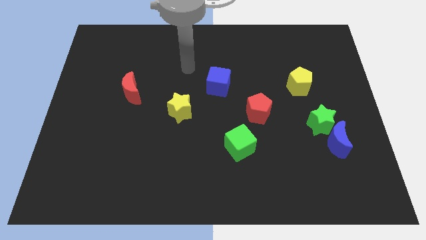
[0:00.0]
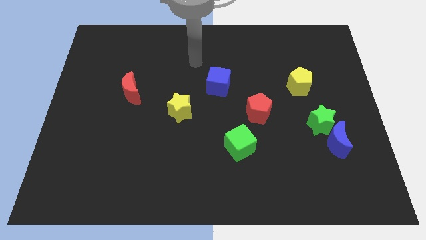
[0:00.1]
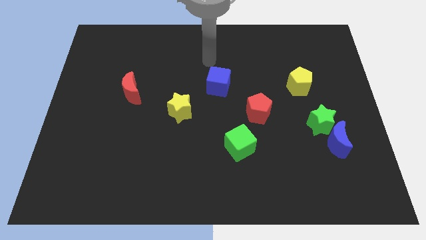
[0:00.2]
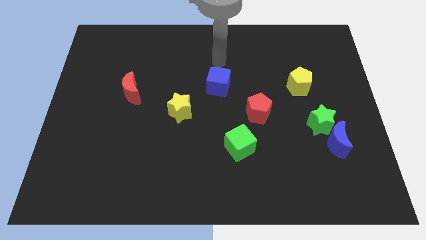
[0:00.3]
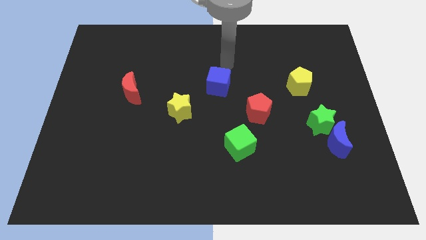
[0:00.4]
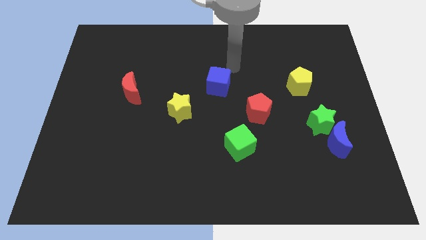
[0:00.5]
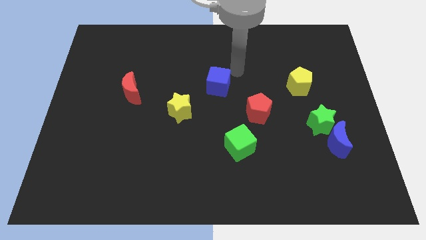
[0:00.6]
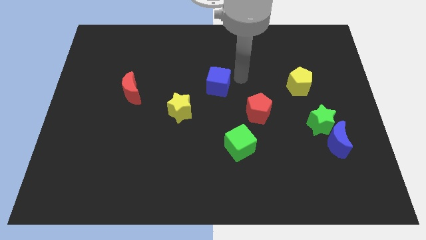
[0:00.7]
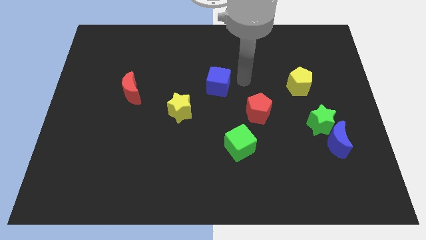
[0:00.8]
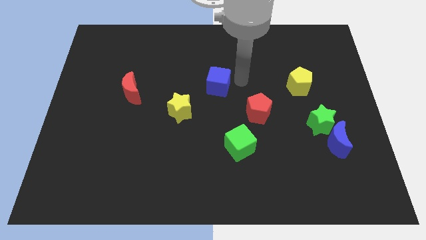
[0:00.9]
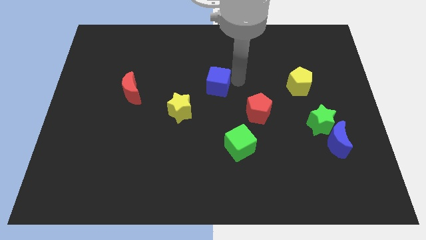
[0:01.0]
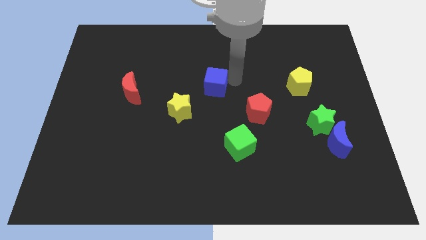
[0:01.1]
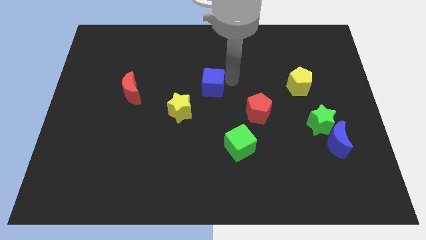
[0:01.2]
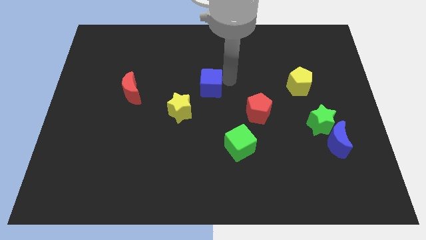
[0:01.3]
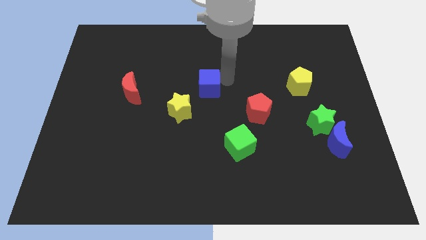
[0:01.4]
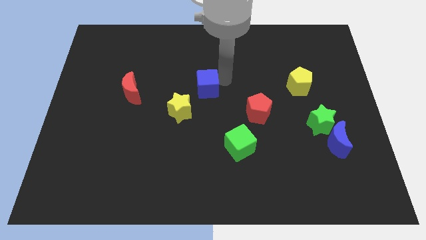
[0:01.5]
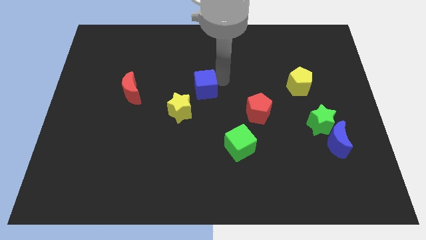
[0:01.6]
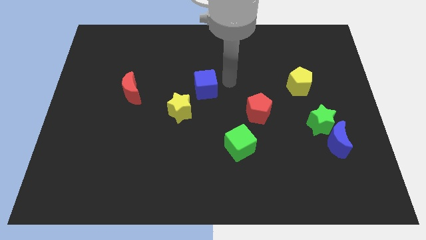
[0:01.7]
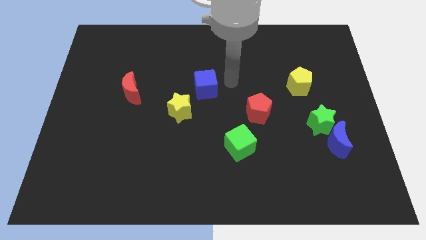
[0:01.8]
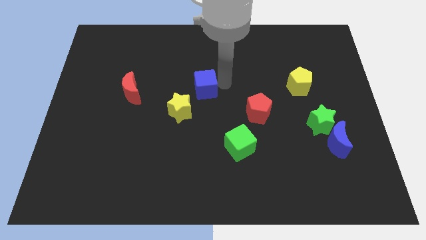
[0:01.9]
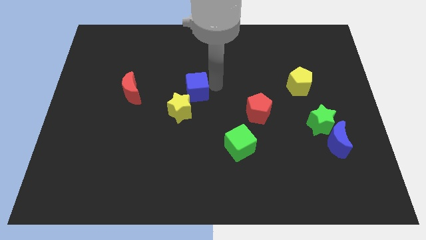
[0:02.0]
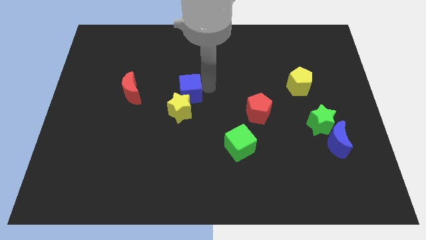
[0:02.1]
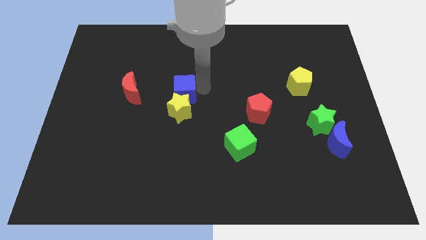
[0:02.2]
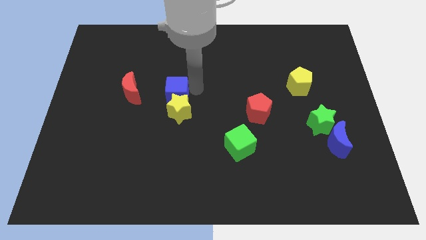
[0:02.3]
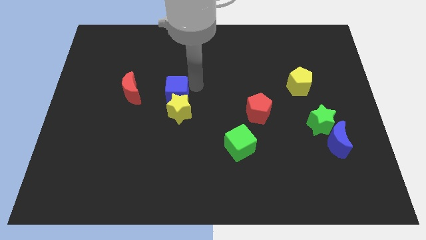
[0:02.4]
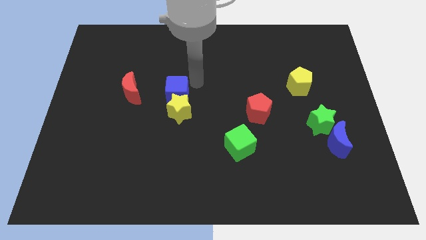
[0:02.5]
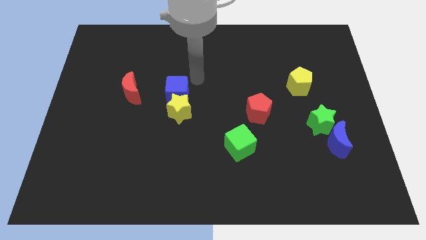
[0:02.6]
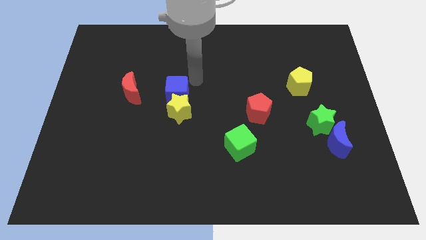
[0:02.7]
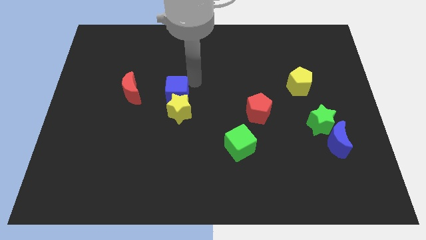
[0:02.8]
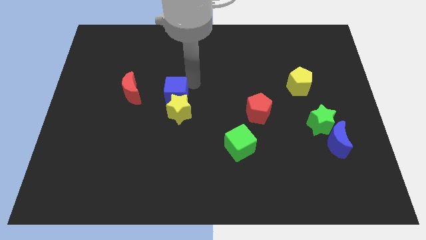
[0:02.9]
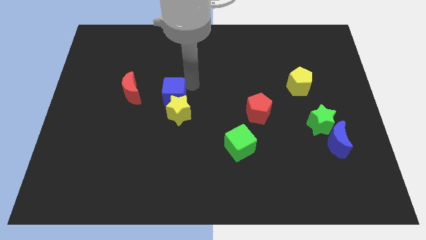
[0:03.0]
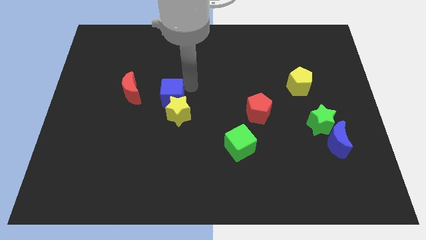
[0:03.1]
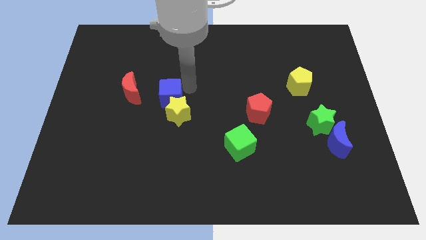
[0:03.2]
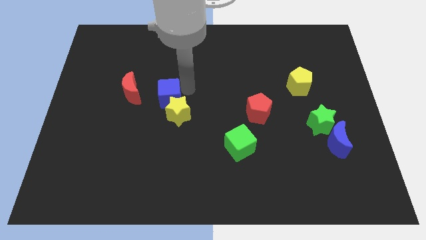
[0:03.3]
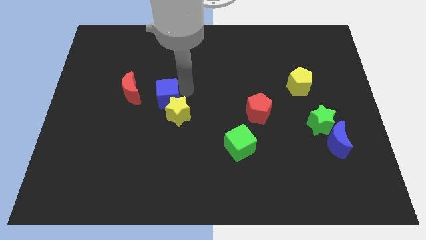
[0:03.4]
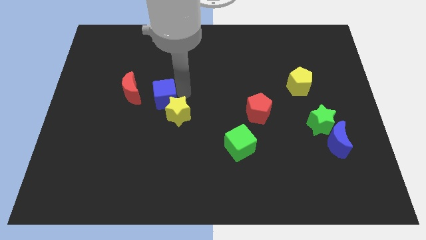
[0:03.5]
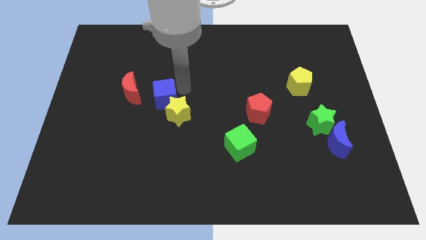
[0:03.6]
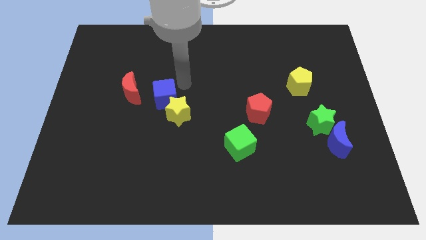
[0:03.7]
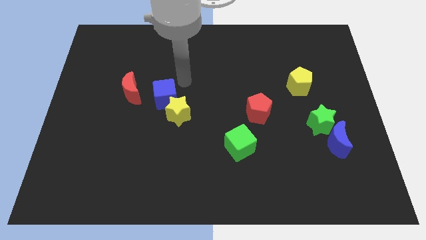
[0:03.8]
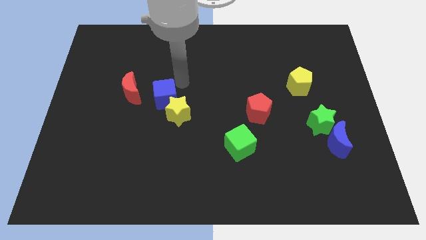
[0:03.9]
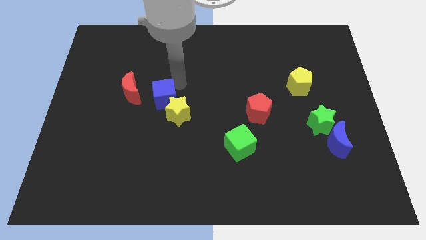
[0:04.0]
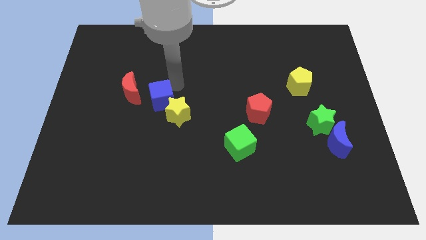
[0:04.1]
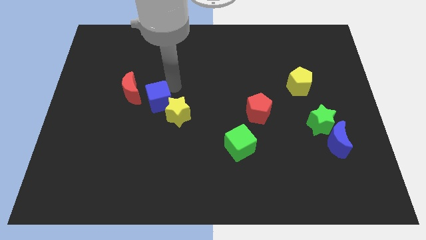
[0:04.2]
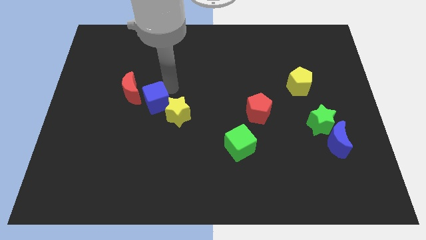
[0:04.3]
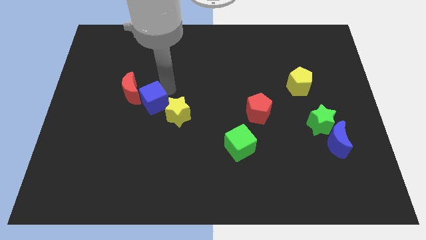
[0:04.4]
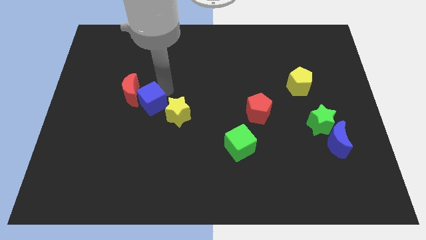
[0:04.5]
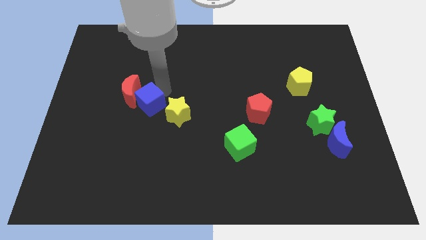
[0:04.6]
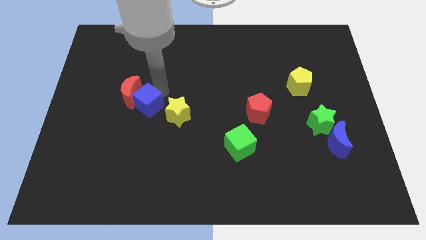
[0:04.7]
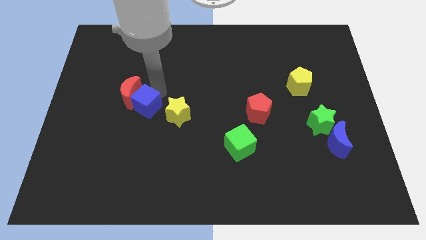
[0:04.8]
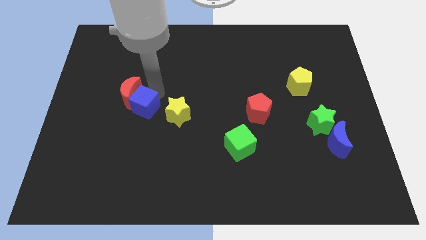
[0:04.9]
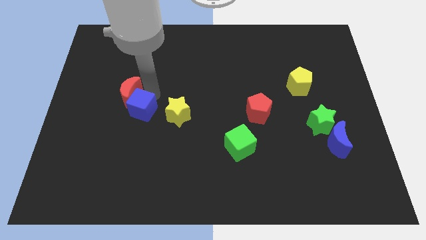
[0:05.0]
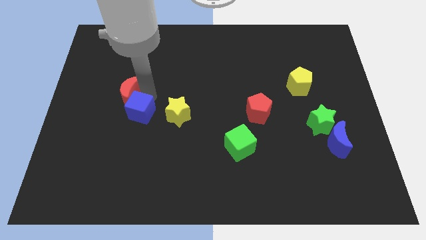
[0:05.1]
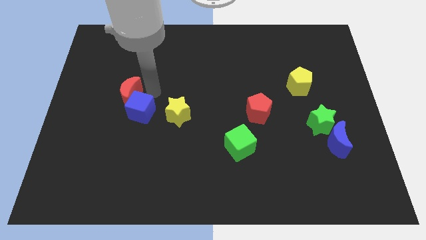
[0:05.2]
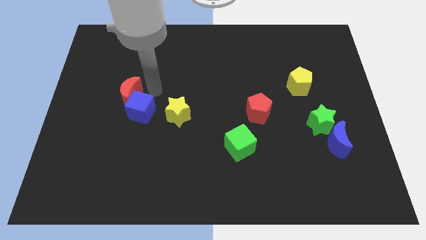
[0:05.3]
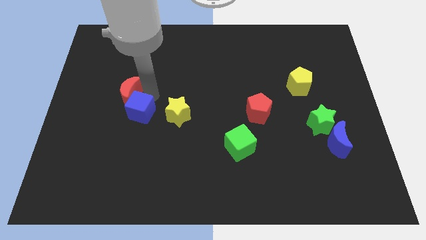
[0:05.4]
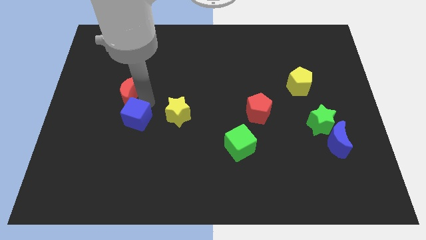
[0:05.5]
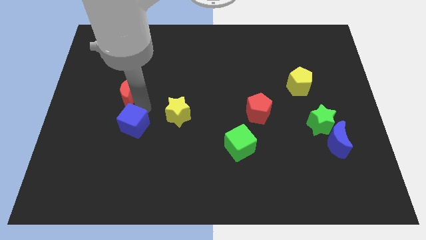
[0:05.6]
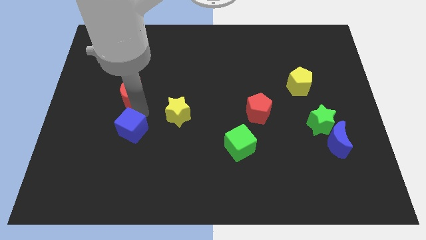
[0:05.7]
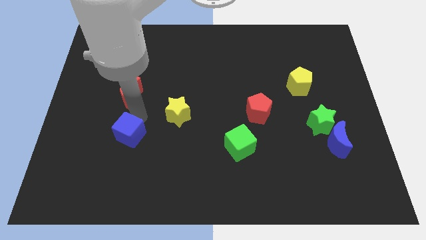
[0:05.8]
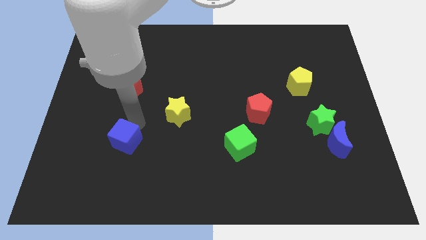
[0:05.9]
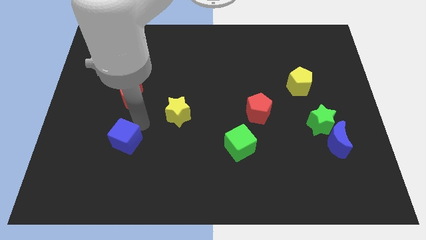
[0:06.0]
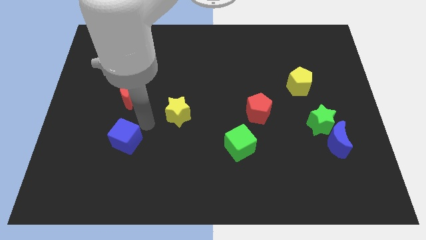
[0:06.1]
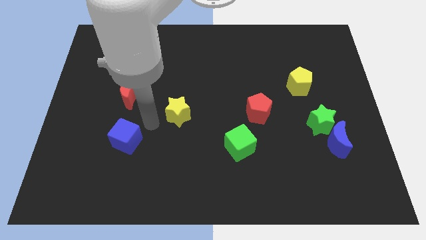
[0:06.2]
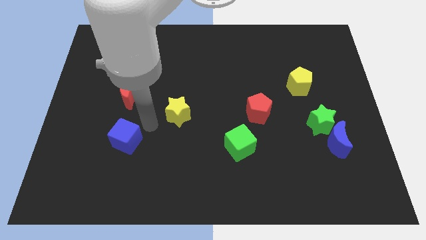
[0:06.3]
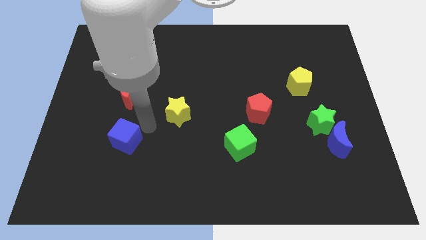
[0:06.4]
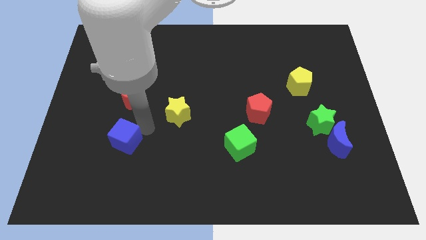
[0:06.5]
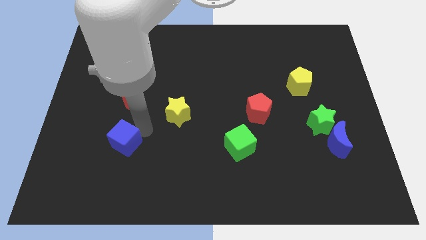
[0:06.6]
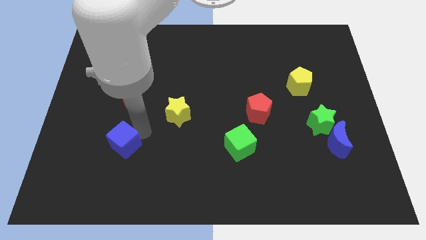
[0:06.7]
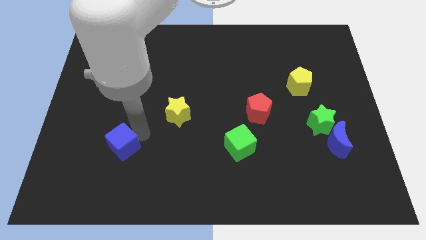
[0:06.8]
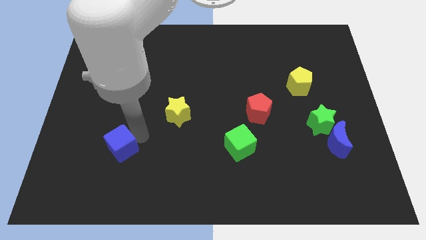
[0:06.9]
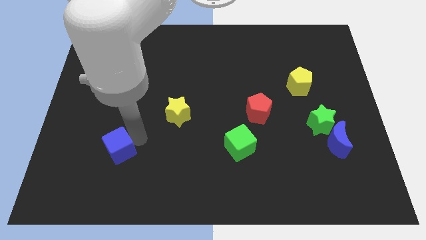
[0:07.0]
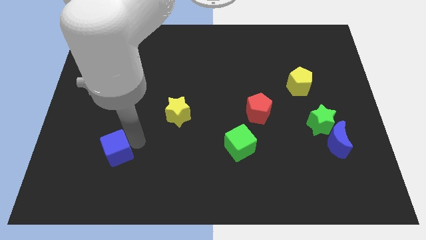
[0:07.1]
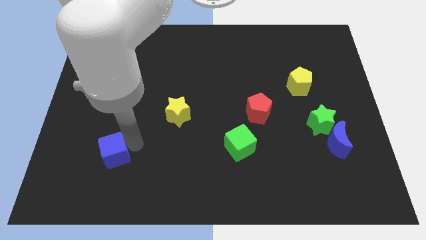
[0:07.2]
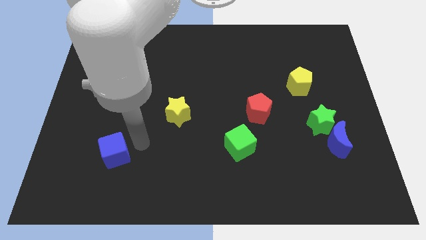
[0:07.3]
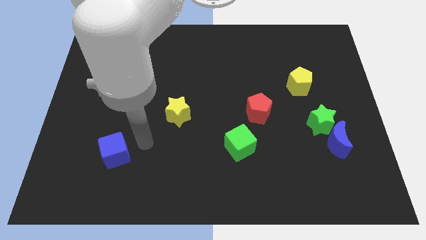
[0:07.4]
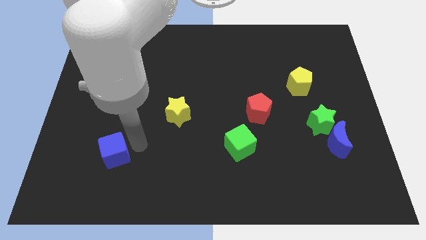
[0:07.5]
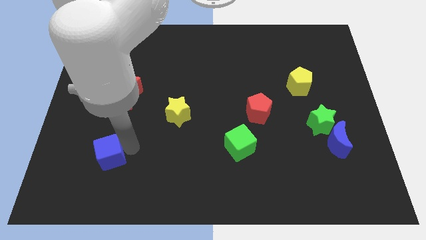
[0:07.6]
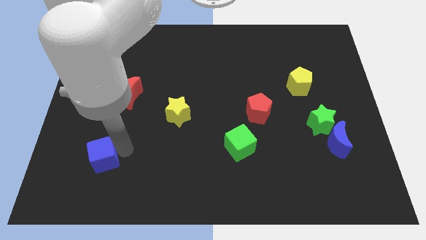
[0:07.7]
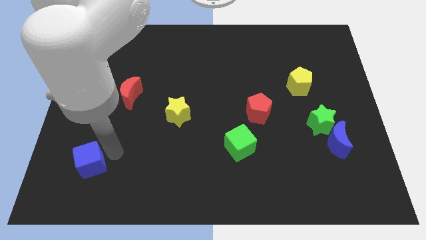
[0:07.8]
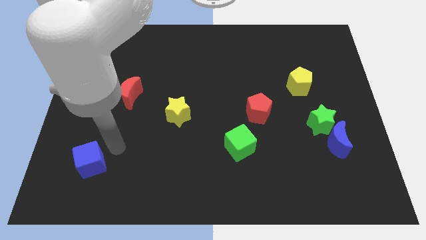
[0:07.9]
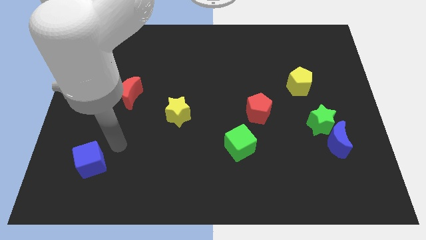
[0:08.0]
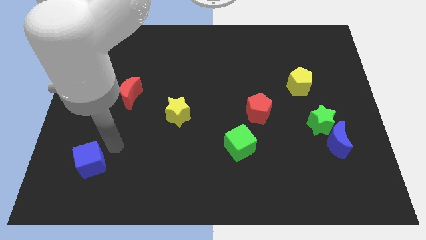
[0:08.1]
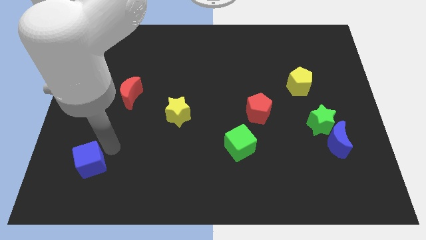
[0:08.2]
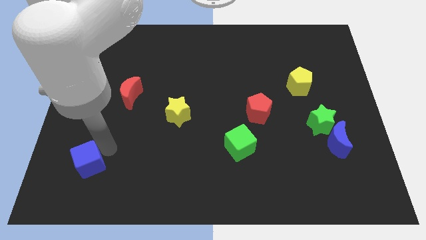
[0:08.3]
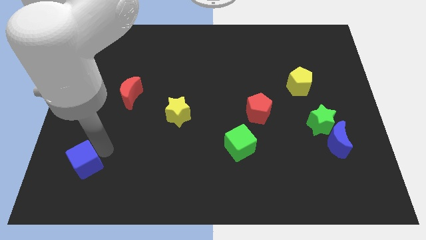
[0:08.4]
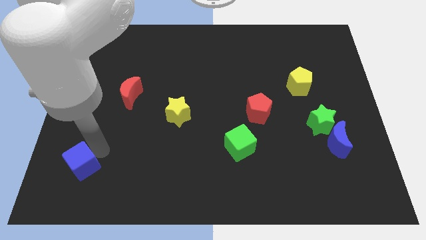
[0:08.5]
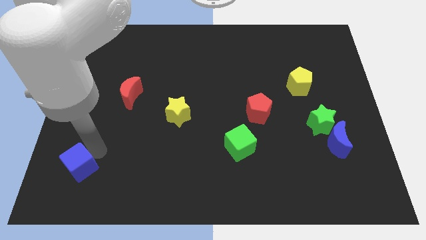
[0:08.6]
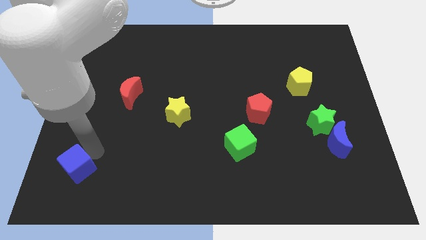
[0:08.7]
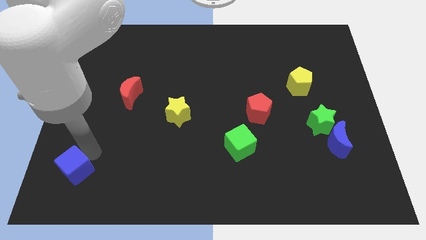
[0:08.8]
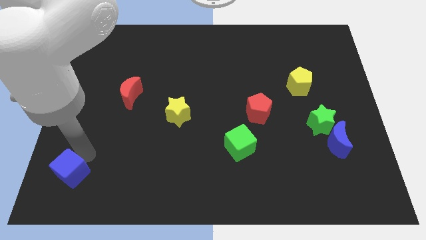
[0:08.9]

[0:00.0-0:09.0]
push the blue cube to the bottom left corner
